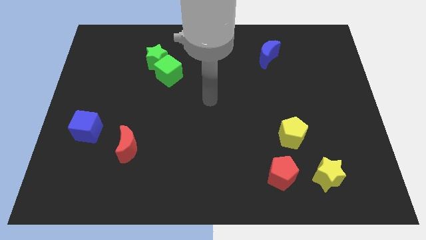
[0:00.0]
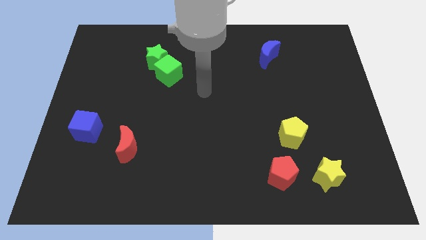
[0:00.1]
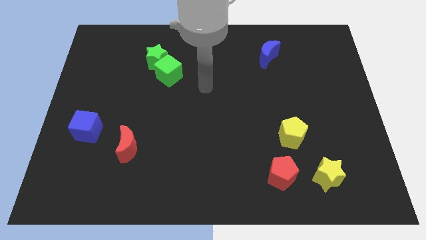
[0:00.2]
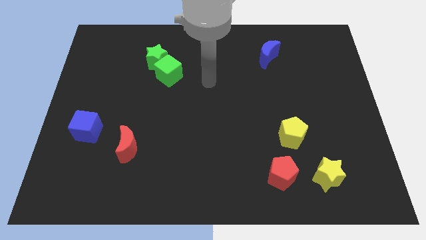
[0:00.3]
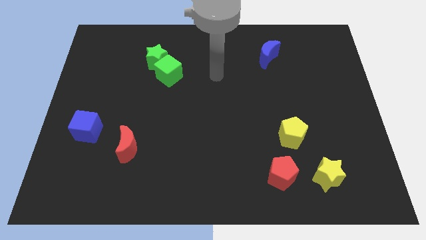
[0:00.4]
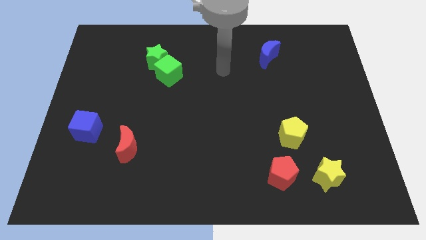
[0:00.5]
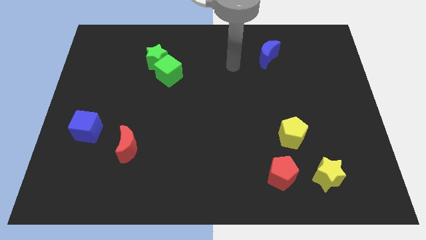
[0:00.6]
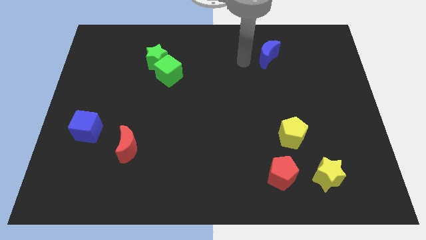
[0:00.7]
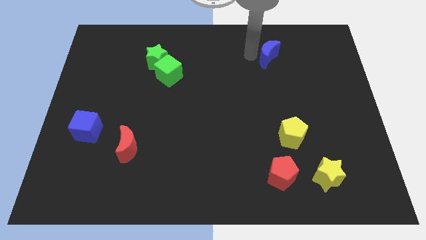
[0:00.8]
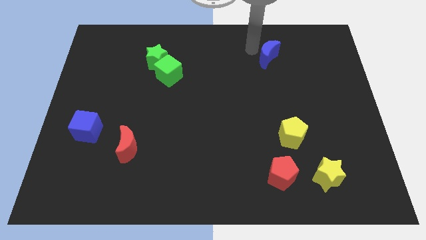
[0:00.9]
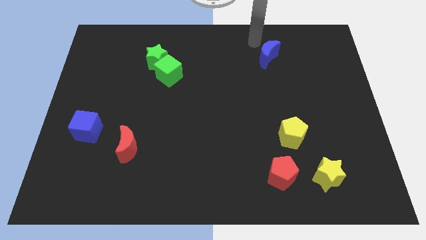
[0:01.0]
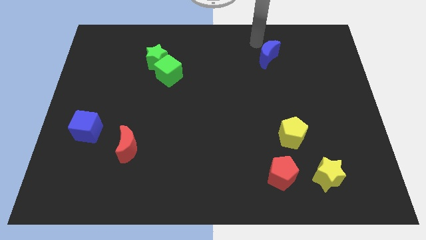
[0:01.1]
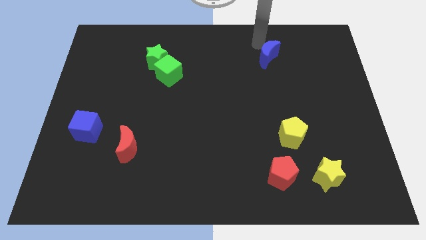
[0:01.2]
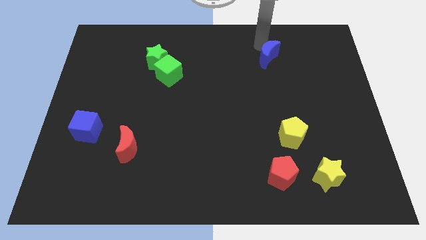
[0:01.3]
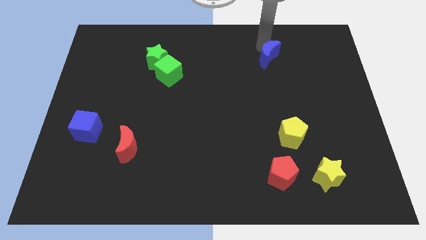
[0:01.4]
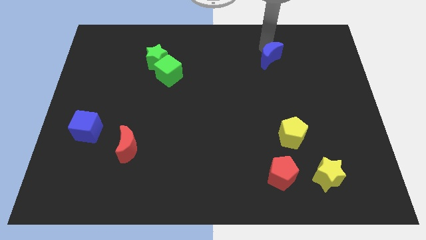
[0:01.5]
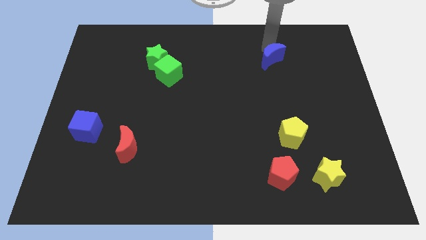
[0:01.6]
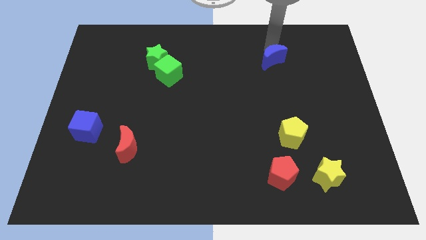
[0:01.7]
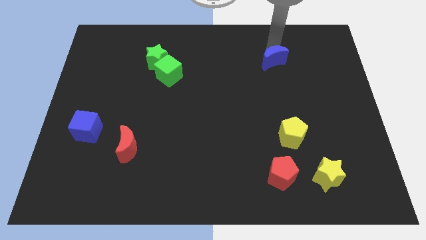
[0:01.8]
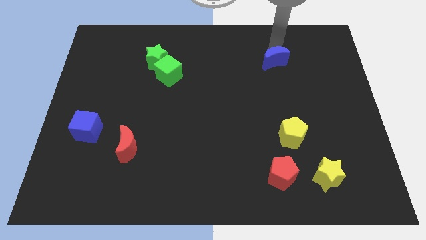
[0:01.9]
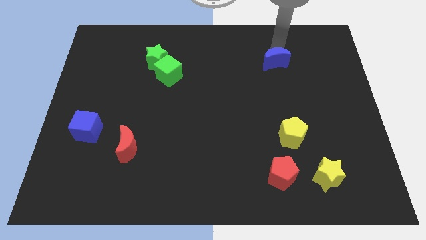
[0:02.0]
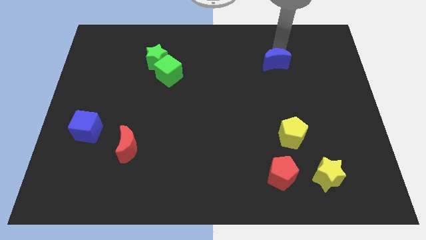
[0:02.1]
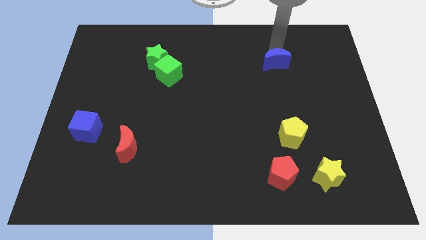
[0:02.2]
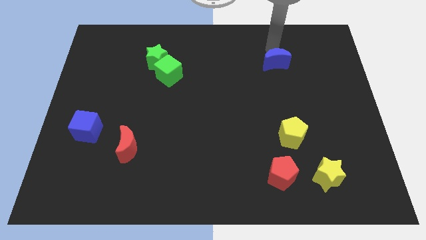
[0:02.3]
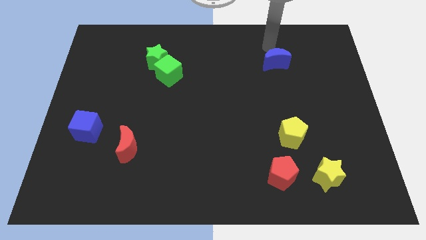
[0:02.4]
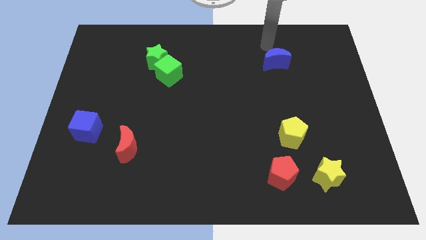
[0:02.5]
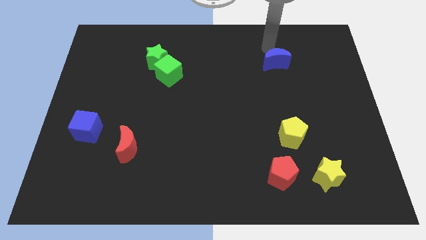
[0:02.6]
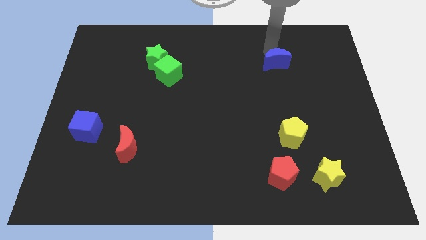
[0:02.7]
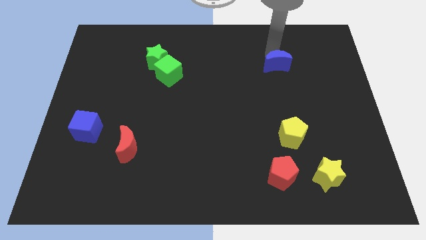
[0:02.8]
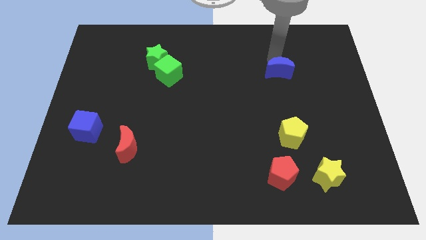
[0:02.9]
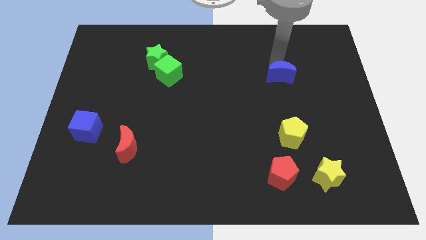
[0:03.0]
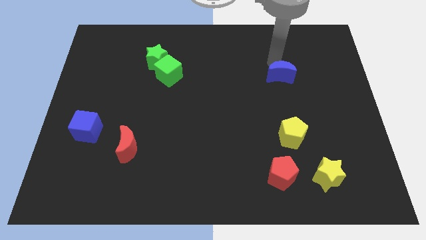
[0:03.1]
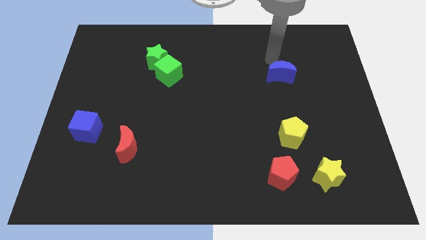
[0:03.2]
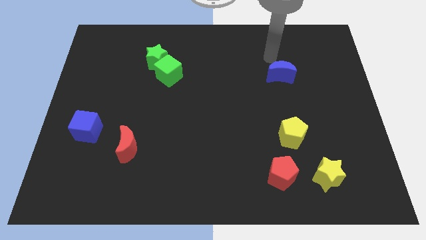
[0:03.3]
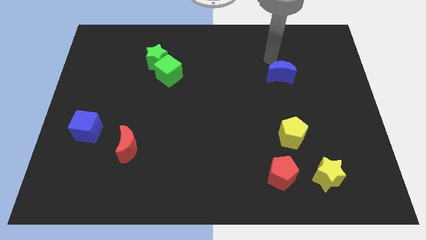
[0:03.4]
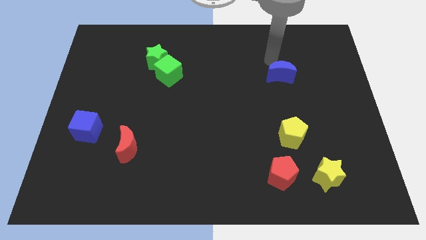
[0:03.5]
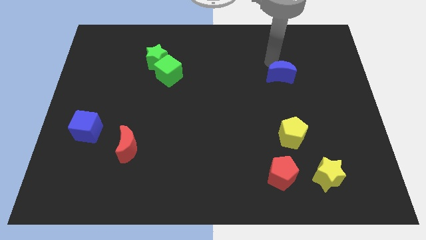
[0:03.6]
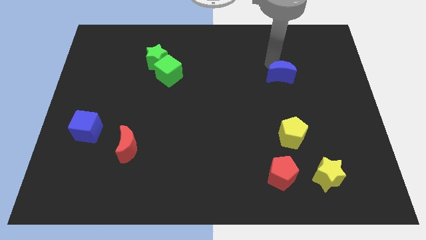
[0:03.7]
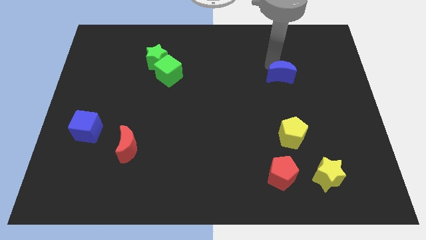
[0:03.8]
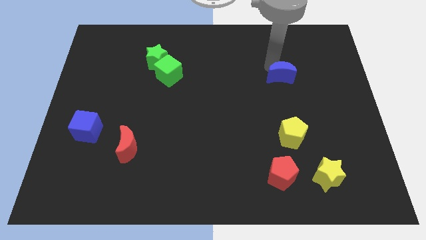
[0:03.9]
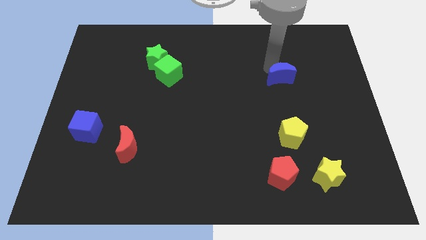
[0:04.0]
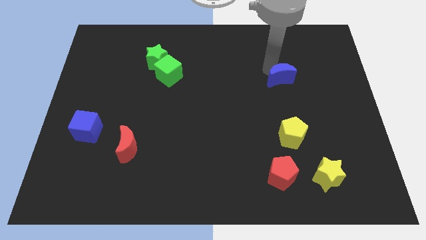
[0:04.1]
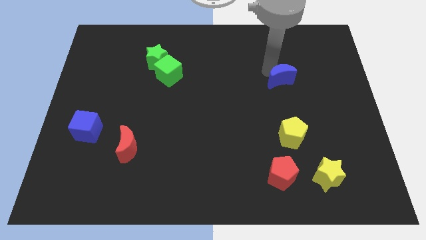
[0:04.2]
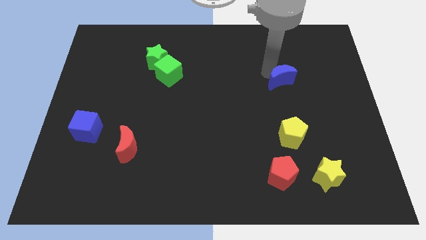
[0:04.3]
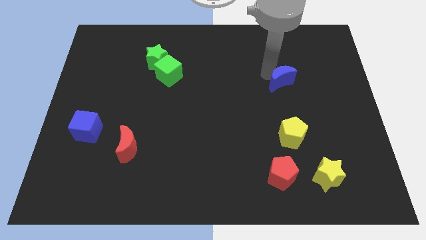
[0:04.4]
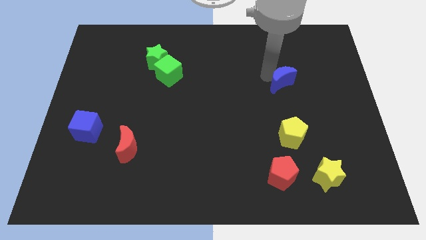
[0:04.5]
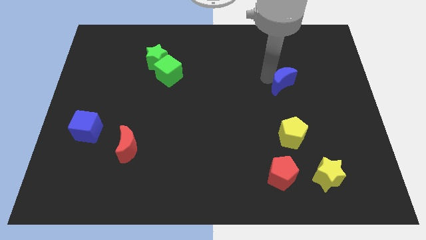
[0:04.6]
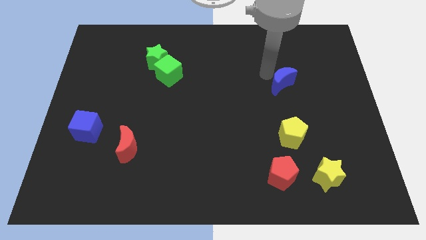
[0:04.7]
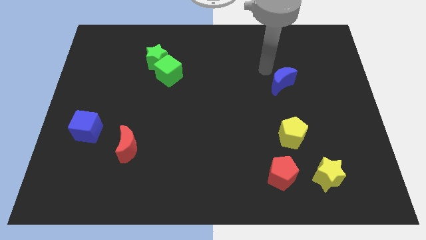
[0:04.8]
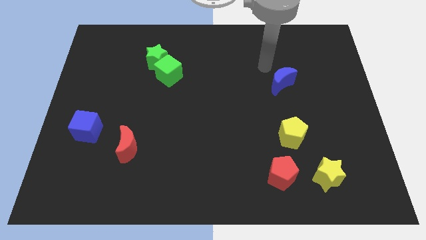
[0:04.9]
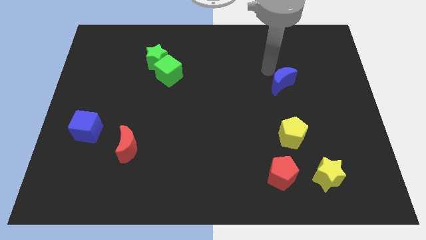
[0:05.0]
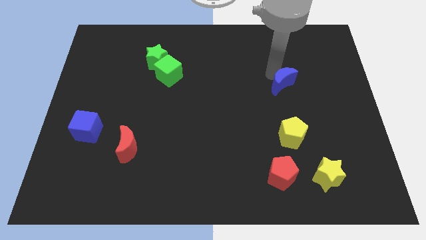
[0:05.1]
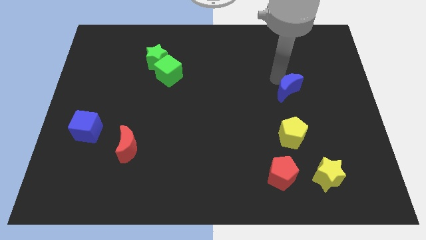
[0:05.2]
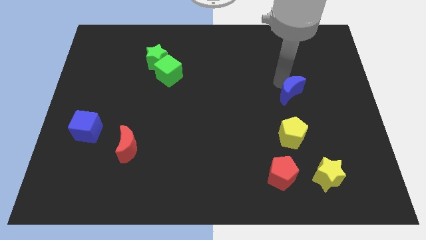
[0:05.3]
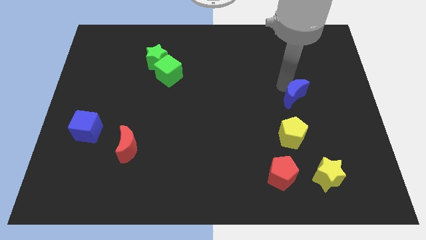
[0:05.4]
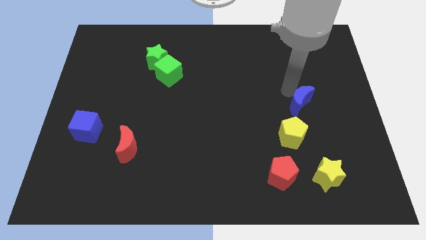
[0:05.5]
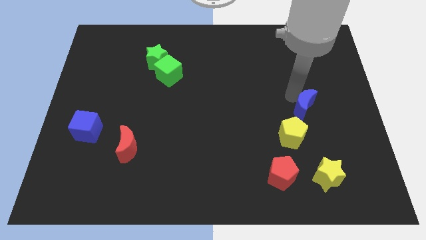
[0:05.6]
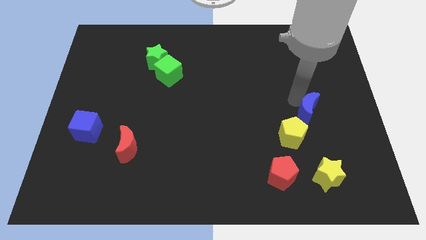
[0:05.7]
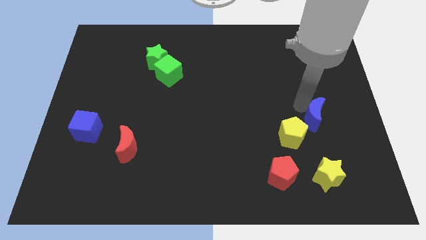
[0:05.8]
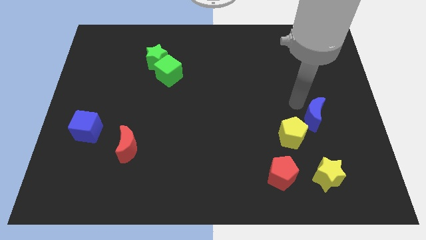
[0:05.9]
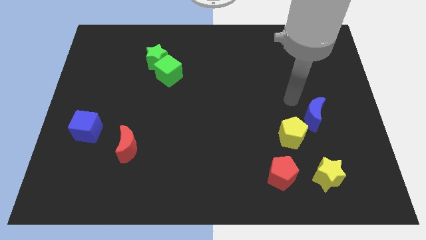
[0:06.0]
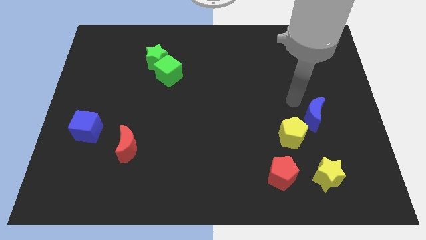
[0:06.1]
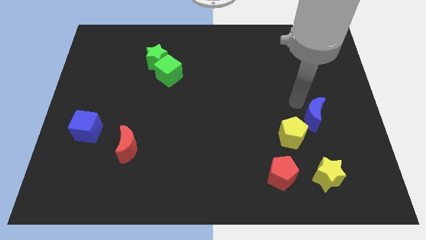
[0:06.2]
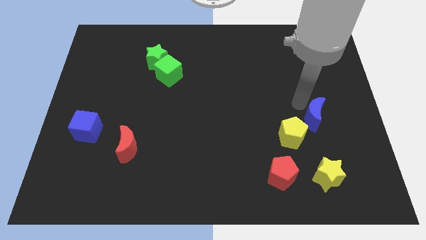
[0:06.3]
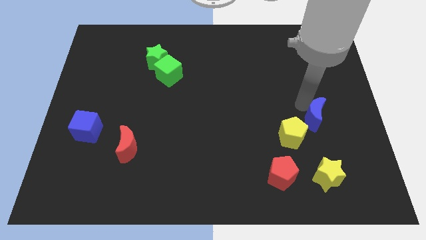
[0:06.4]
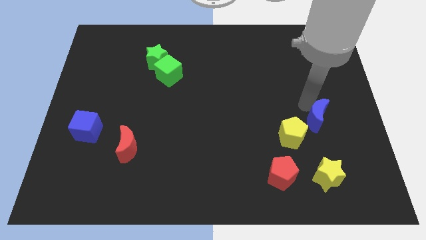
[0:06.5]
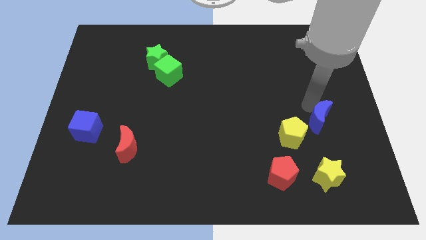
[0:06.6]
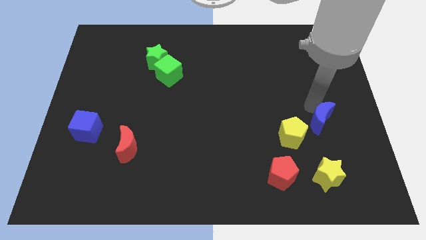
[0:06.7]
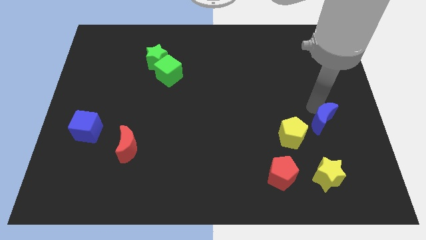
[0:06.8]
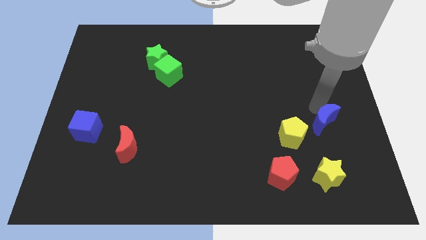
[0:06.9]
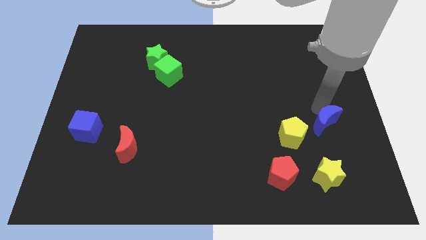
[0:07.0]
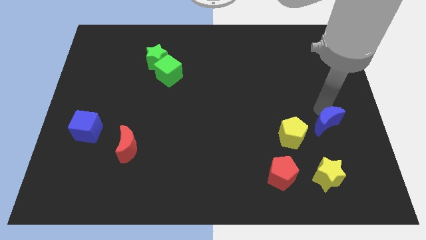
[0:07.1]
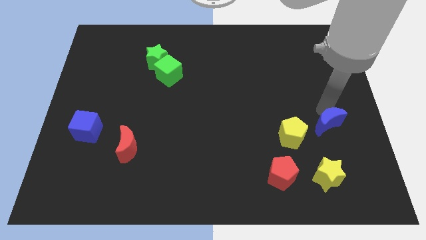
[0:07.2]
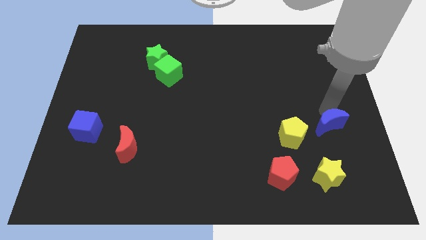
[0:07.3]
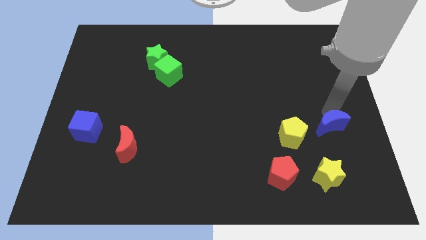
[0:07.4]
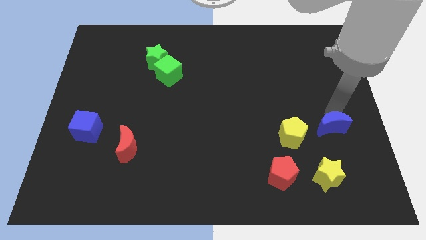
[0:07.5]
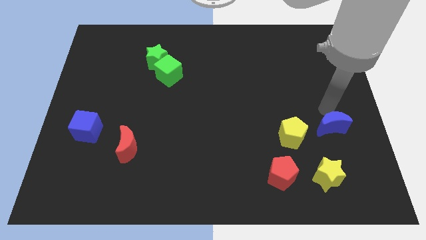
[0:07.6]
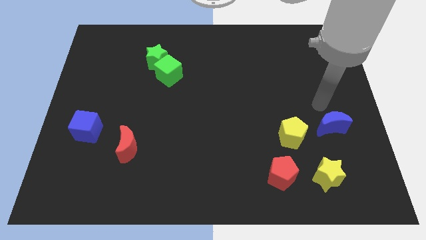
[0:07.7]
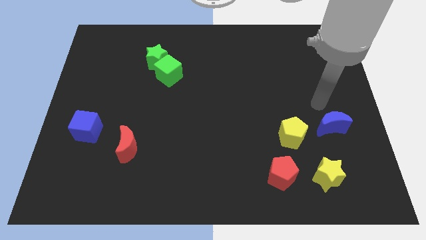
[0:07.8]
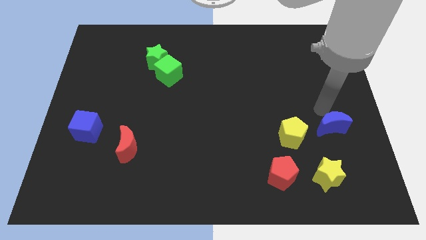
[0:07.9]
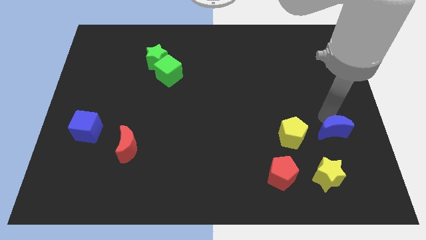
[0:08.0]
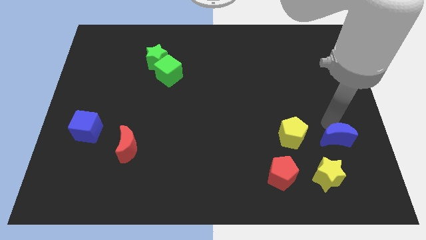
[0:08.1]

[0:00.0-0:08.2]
push the blue moon to the top right side of the yellow star
